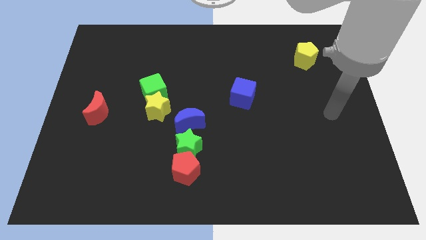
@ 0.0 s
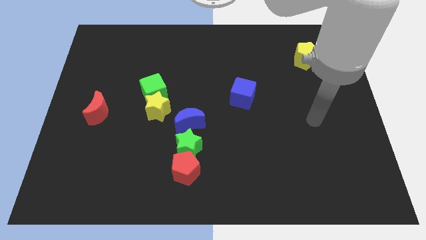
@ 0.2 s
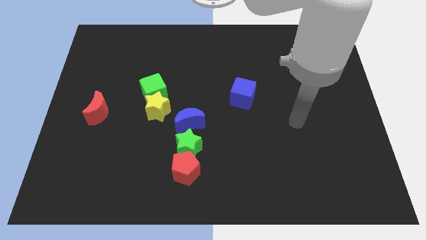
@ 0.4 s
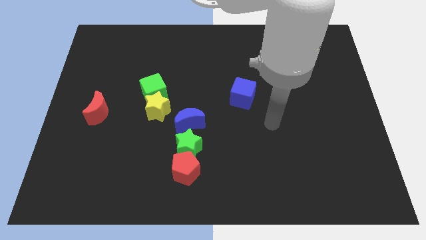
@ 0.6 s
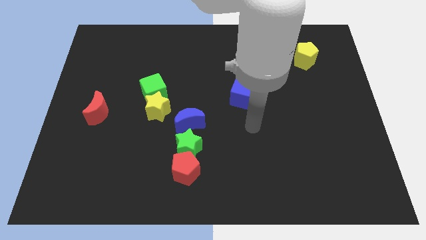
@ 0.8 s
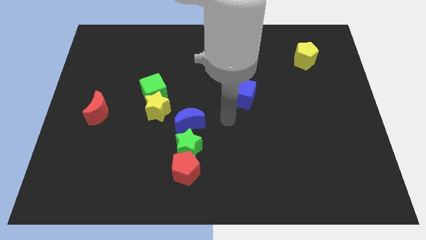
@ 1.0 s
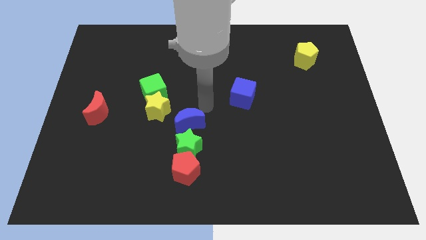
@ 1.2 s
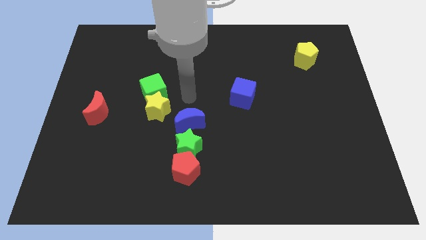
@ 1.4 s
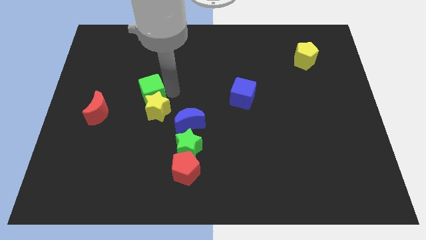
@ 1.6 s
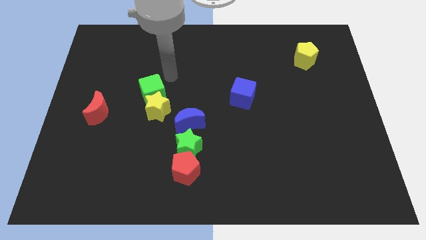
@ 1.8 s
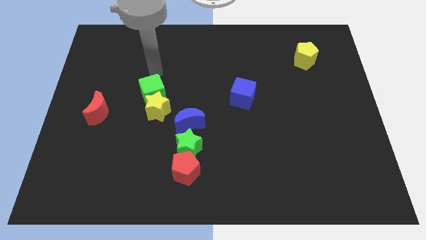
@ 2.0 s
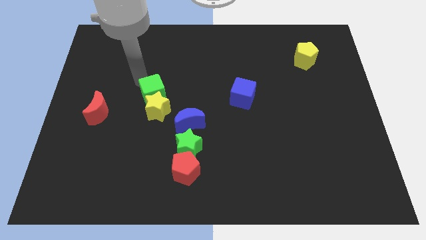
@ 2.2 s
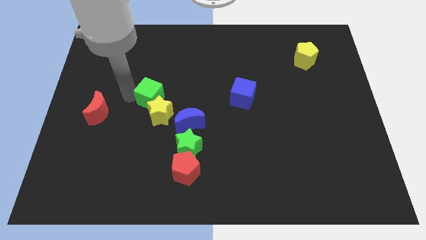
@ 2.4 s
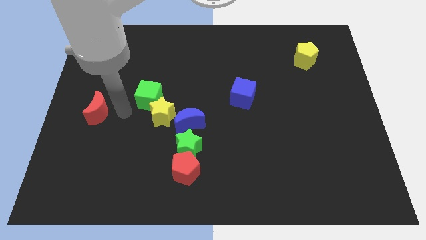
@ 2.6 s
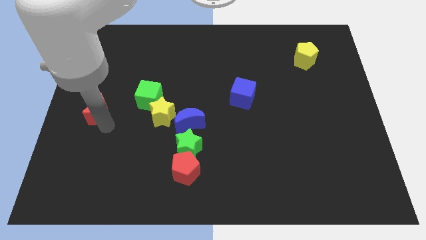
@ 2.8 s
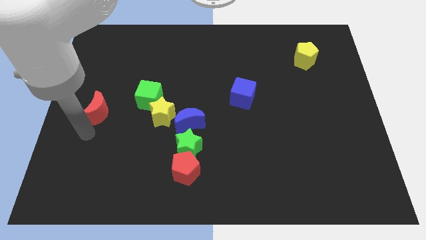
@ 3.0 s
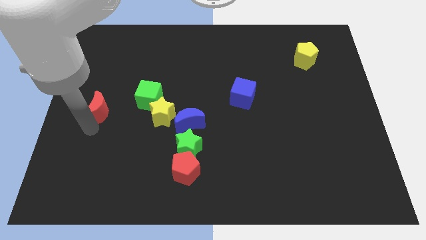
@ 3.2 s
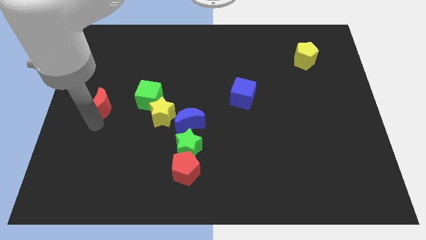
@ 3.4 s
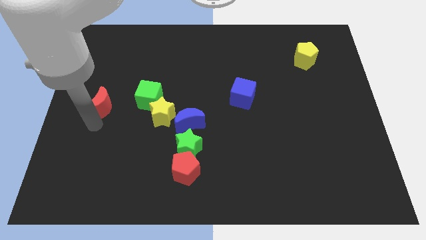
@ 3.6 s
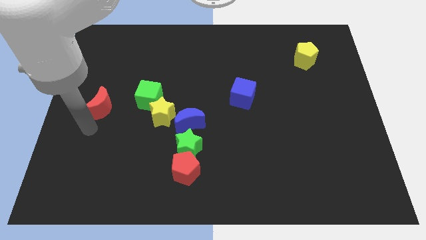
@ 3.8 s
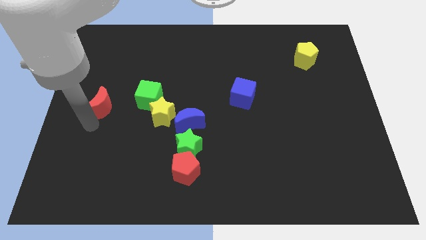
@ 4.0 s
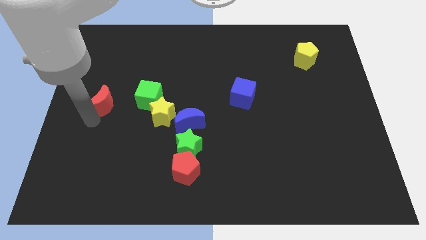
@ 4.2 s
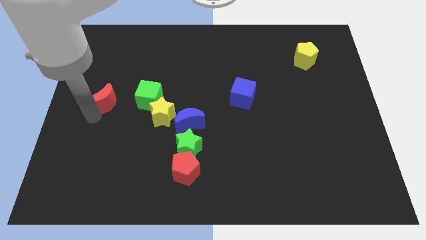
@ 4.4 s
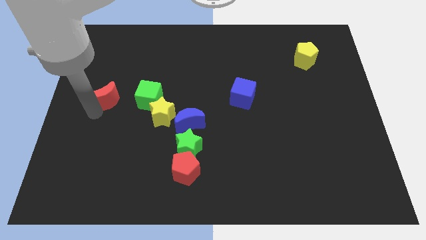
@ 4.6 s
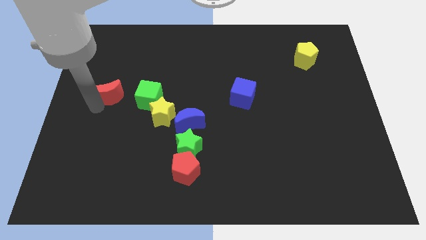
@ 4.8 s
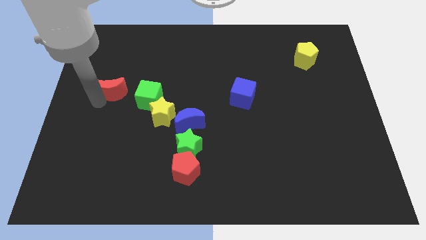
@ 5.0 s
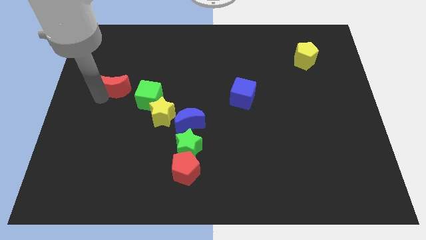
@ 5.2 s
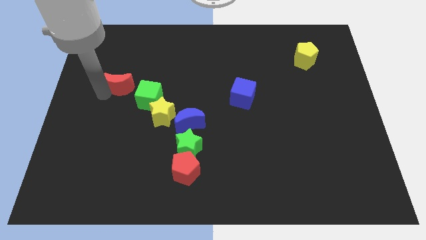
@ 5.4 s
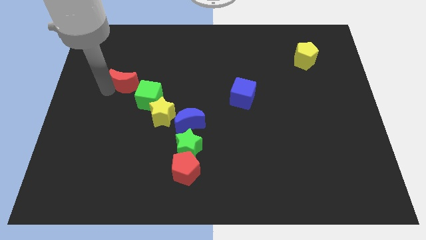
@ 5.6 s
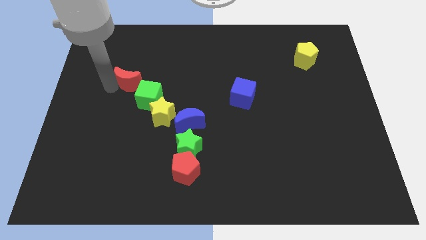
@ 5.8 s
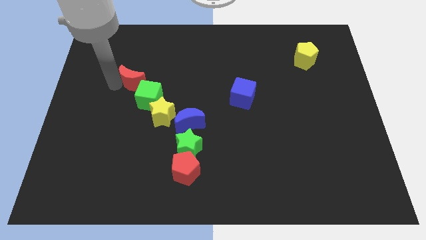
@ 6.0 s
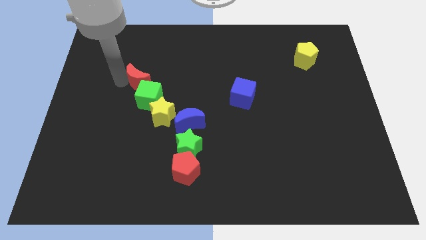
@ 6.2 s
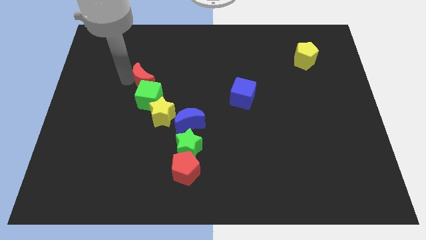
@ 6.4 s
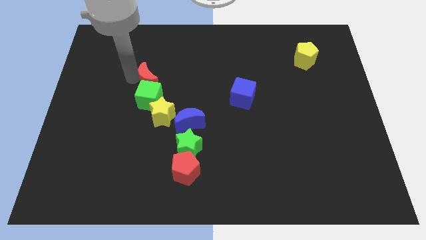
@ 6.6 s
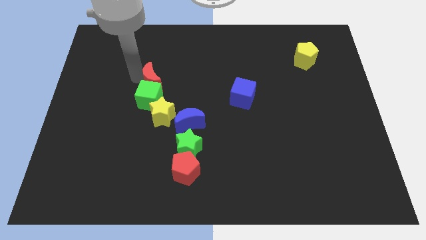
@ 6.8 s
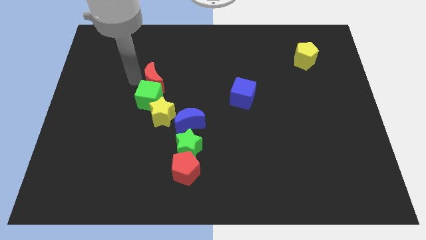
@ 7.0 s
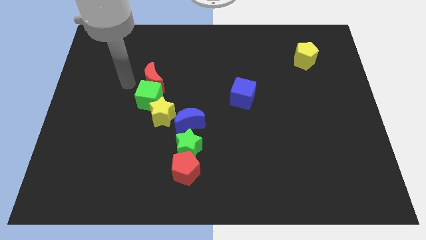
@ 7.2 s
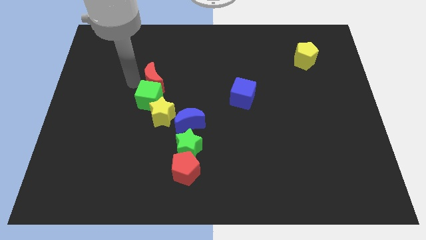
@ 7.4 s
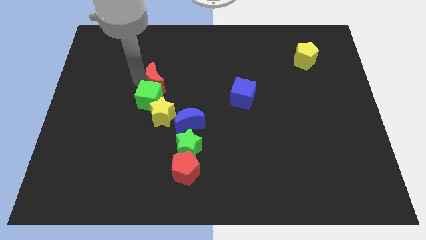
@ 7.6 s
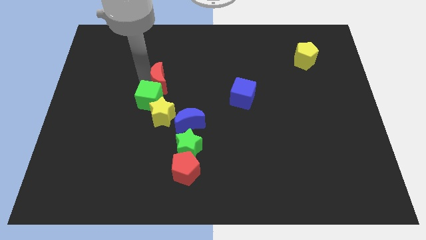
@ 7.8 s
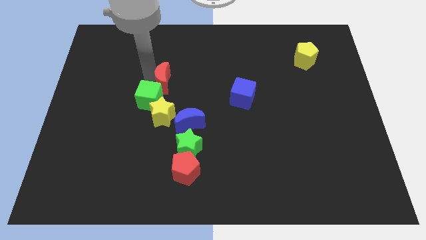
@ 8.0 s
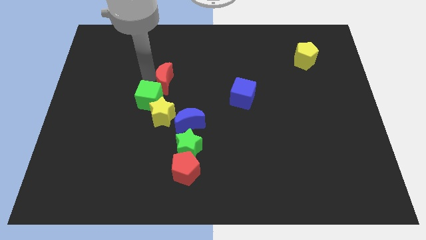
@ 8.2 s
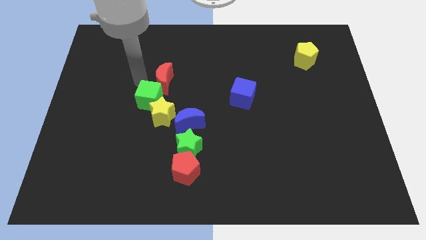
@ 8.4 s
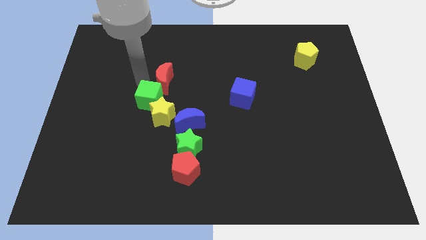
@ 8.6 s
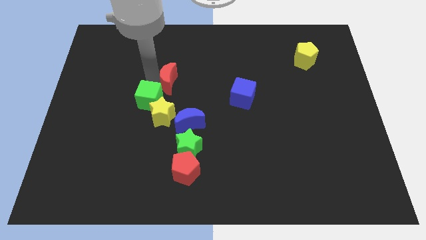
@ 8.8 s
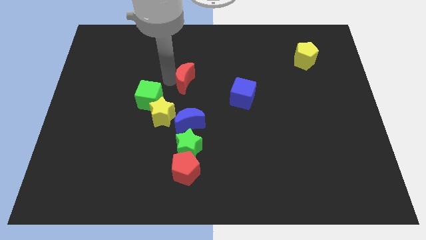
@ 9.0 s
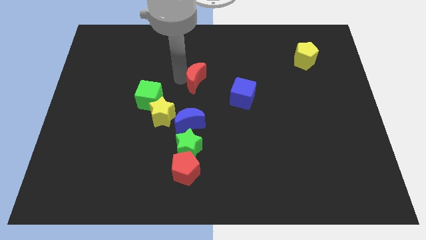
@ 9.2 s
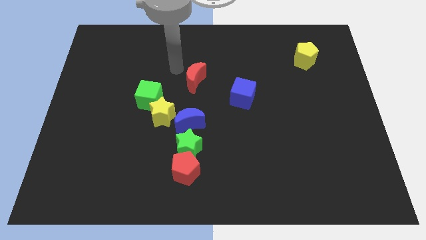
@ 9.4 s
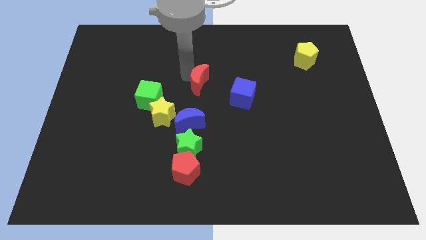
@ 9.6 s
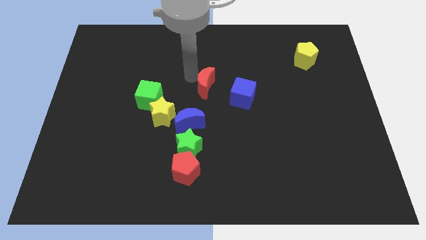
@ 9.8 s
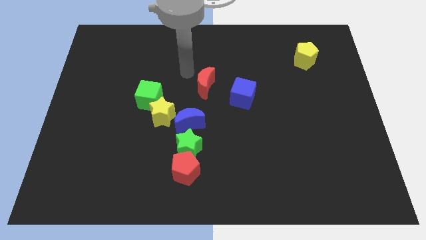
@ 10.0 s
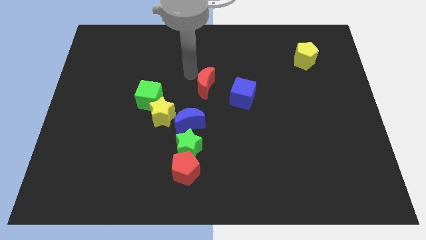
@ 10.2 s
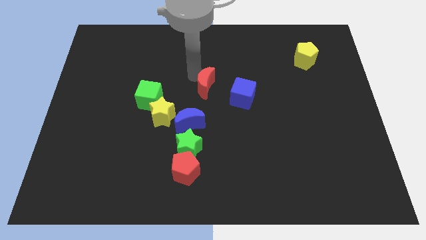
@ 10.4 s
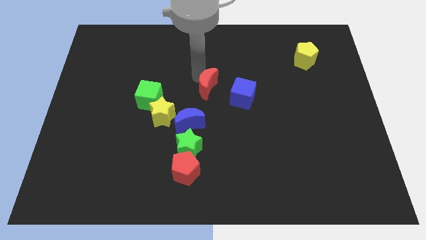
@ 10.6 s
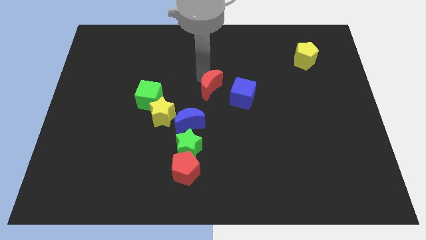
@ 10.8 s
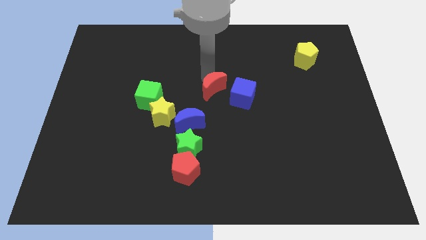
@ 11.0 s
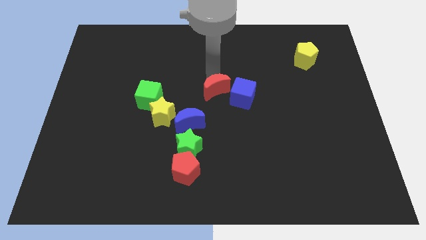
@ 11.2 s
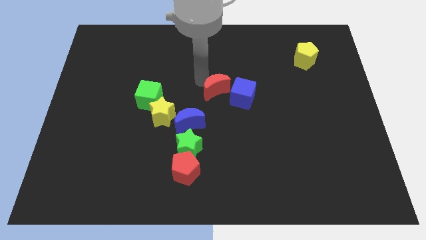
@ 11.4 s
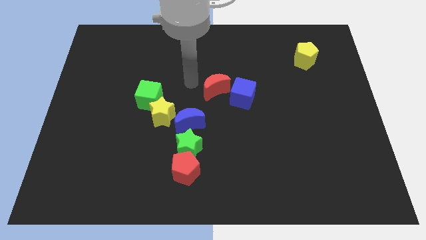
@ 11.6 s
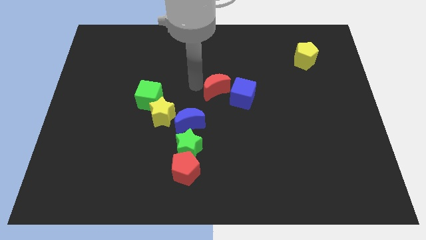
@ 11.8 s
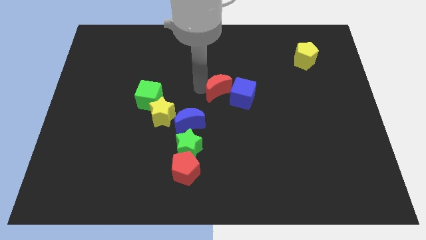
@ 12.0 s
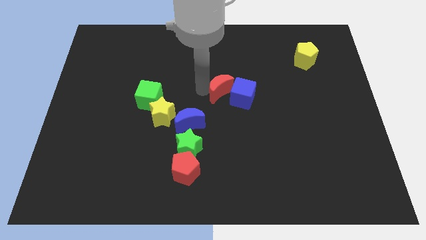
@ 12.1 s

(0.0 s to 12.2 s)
put the red moon towards the blue cube

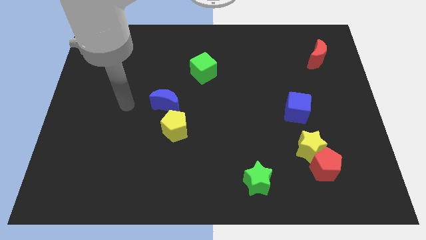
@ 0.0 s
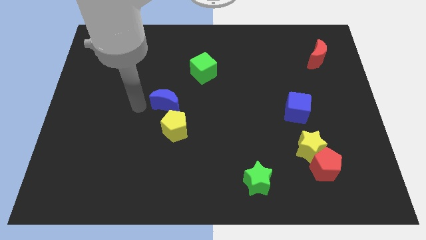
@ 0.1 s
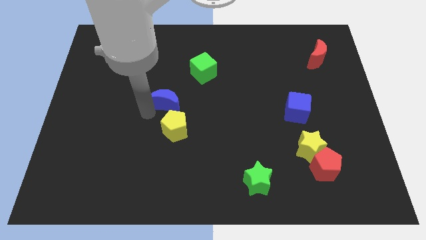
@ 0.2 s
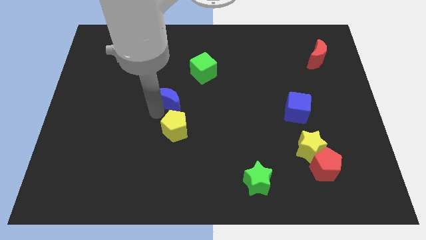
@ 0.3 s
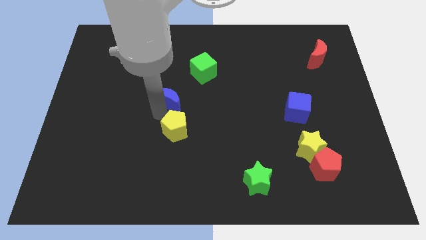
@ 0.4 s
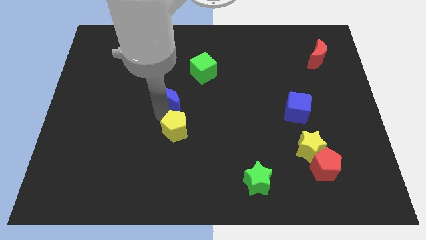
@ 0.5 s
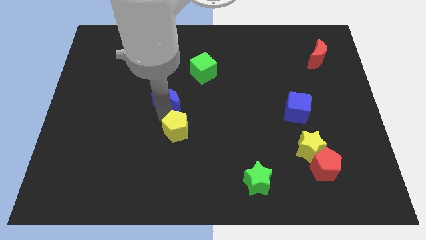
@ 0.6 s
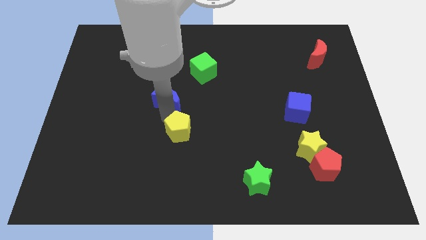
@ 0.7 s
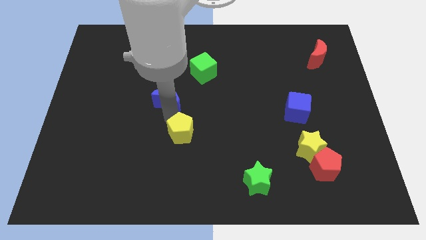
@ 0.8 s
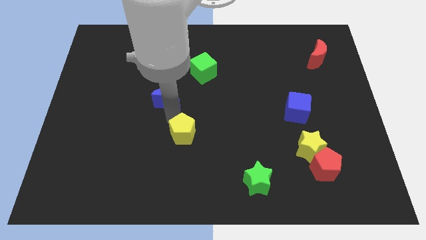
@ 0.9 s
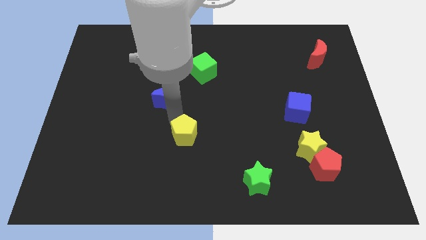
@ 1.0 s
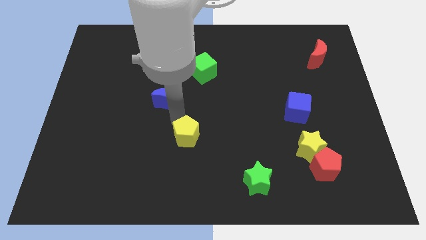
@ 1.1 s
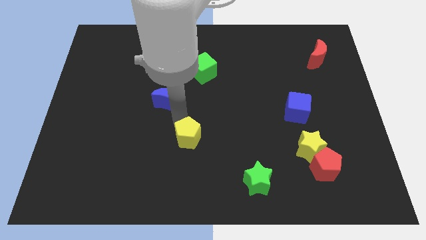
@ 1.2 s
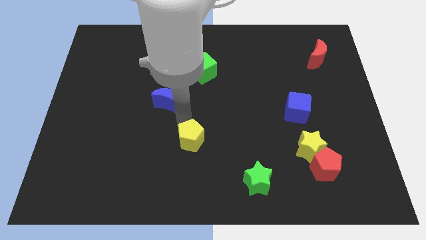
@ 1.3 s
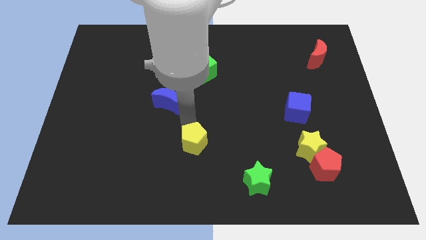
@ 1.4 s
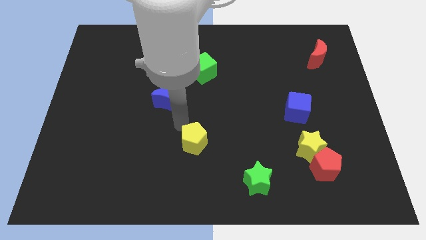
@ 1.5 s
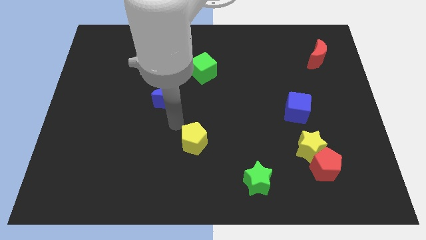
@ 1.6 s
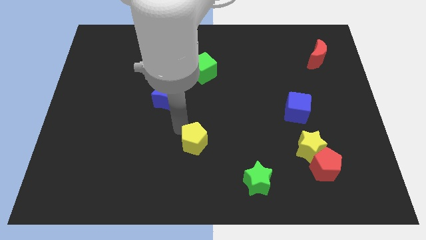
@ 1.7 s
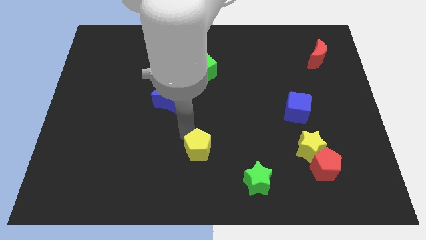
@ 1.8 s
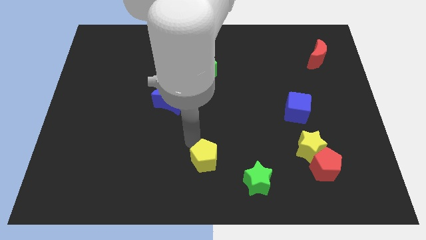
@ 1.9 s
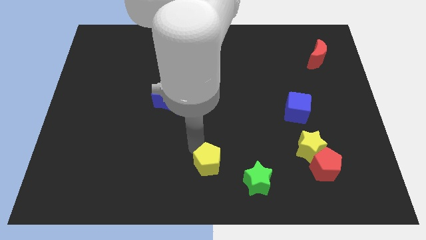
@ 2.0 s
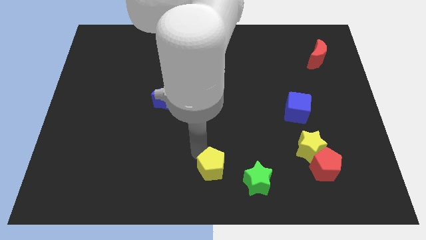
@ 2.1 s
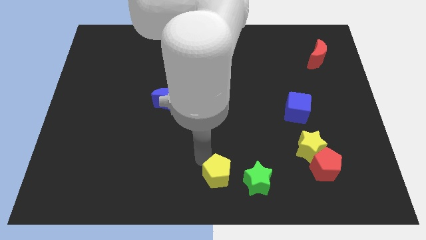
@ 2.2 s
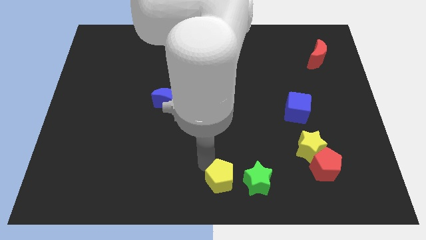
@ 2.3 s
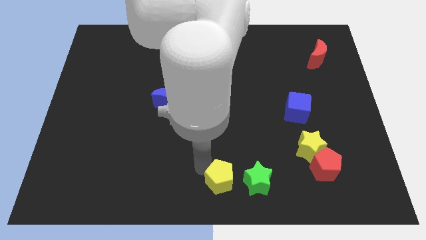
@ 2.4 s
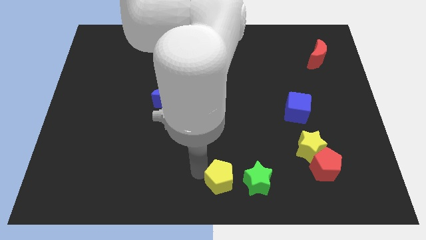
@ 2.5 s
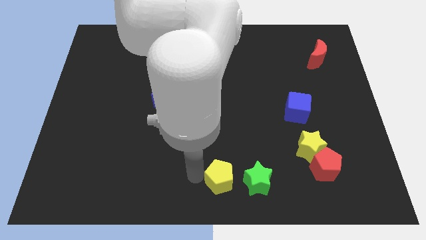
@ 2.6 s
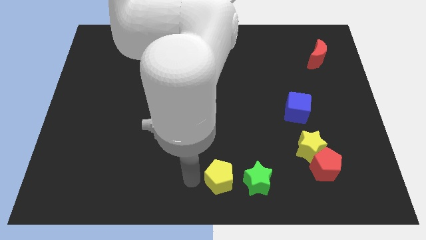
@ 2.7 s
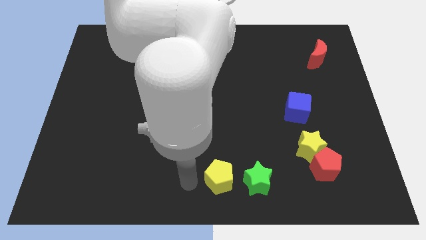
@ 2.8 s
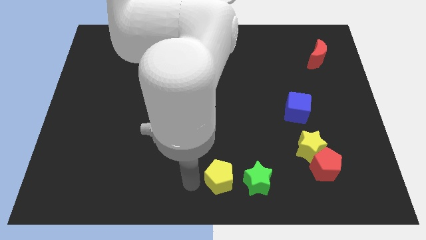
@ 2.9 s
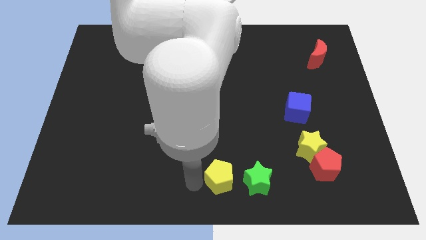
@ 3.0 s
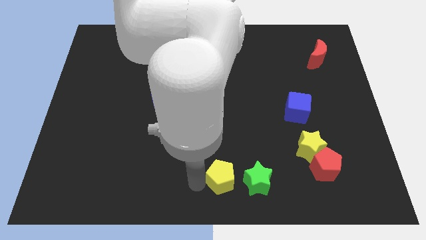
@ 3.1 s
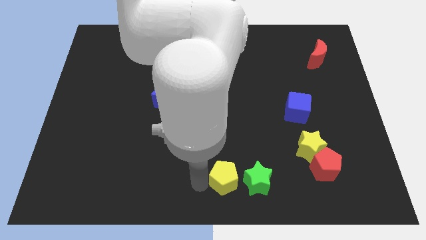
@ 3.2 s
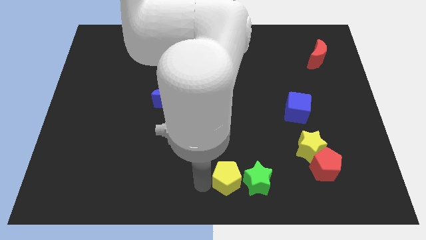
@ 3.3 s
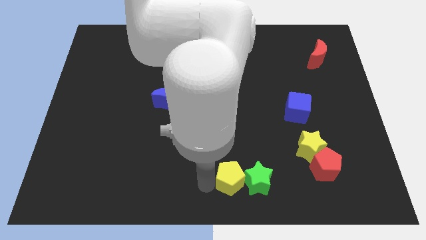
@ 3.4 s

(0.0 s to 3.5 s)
slide the yellow pentagon towards the green star
